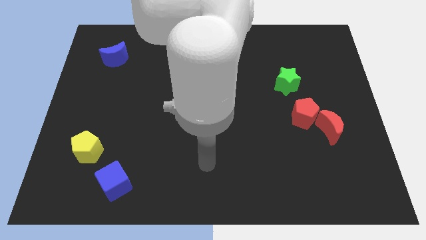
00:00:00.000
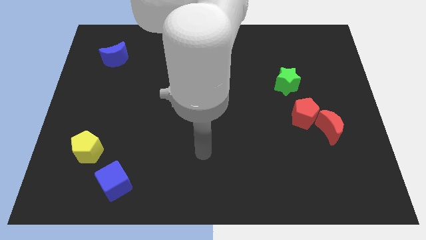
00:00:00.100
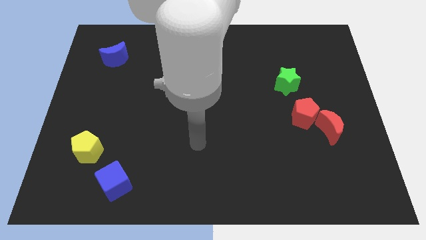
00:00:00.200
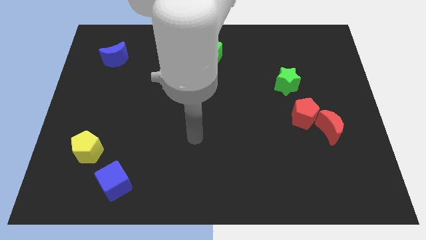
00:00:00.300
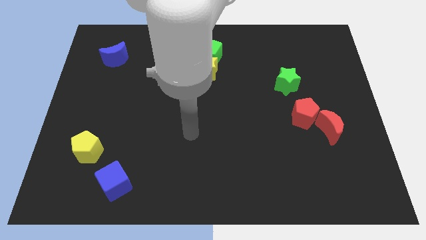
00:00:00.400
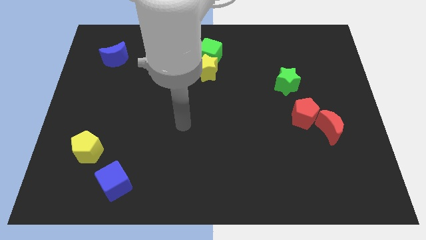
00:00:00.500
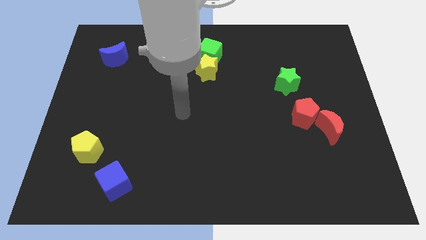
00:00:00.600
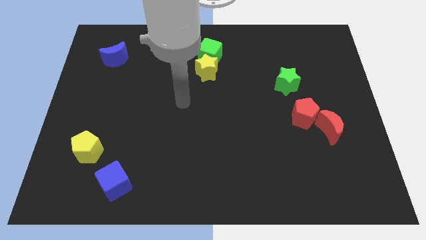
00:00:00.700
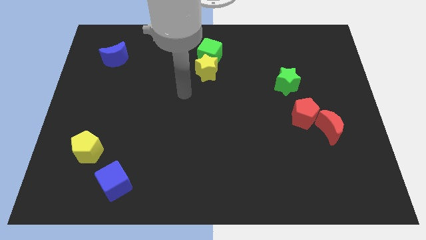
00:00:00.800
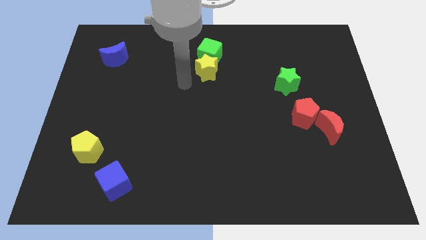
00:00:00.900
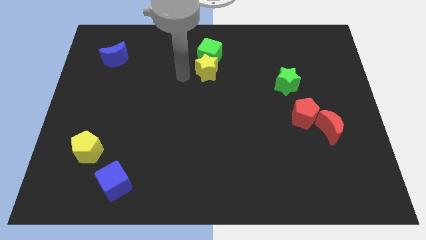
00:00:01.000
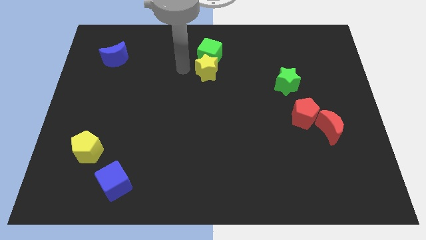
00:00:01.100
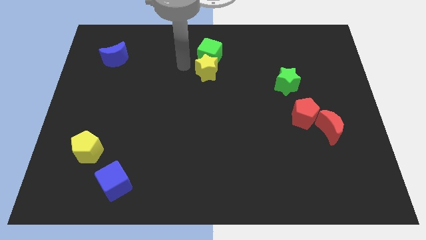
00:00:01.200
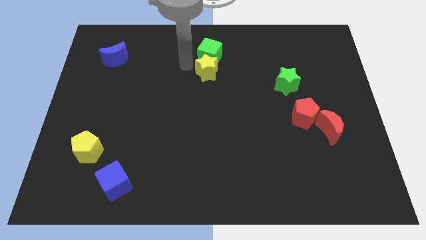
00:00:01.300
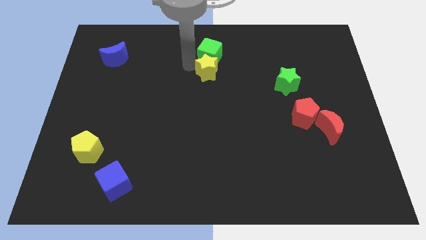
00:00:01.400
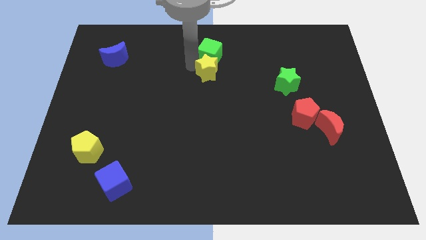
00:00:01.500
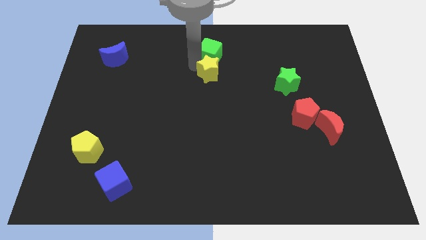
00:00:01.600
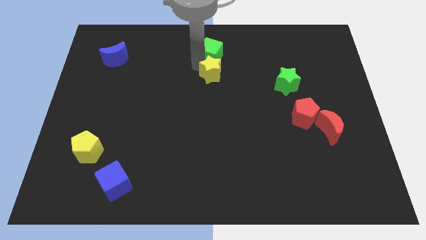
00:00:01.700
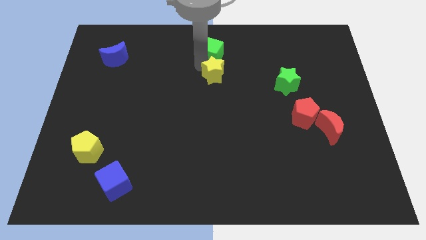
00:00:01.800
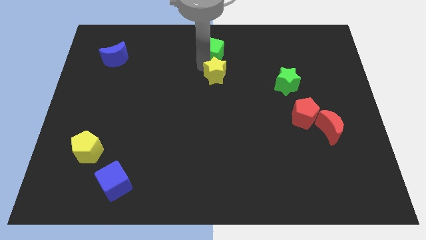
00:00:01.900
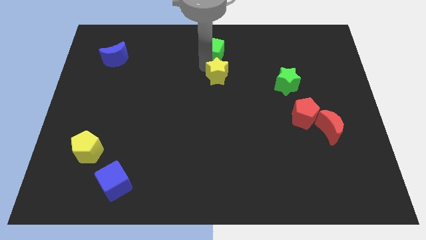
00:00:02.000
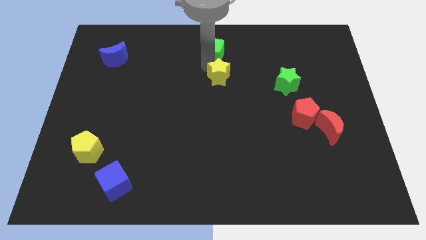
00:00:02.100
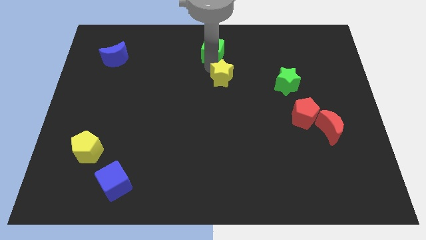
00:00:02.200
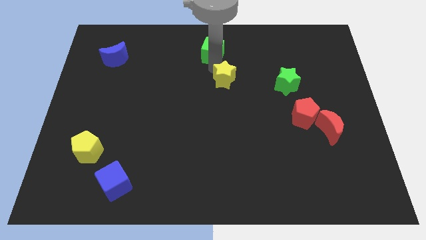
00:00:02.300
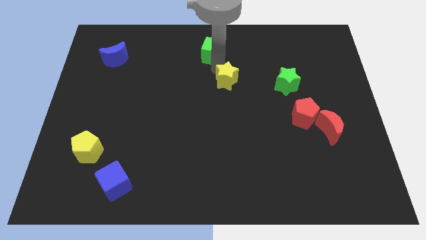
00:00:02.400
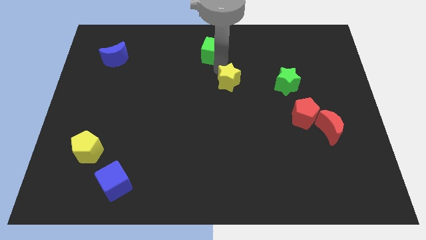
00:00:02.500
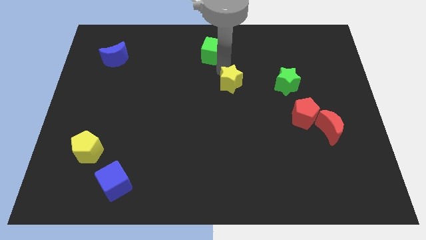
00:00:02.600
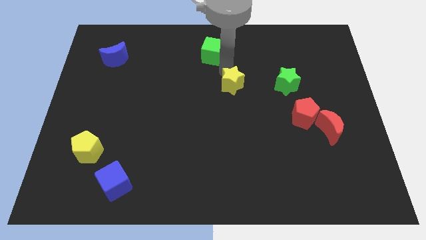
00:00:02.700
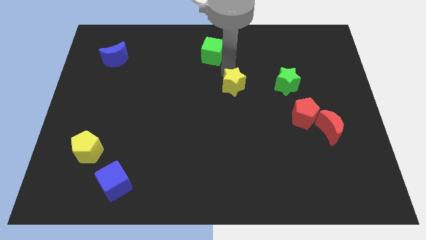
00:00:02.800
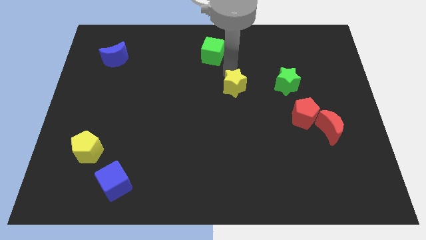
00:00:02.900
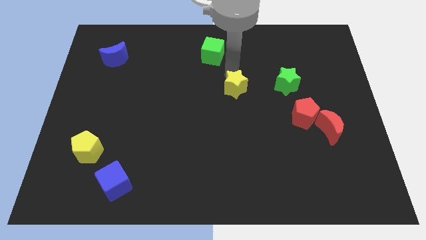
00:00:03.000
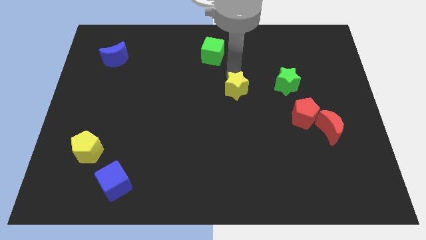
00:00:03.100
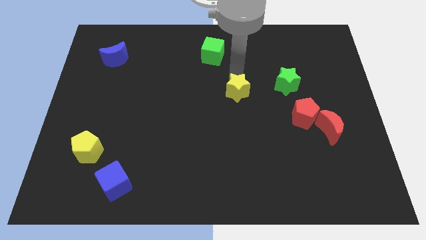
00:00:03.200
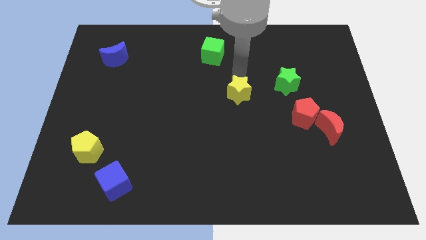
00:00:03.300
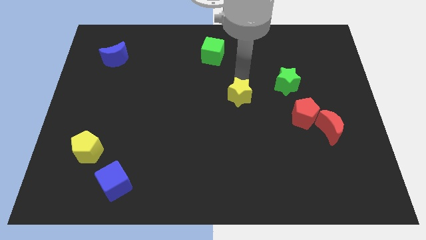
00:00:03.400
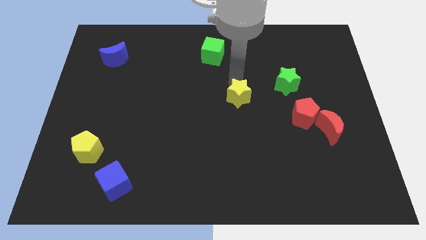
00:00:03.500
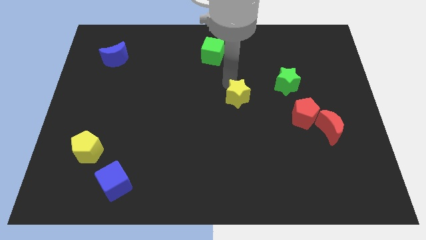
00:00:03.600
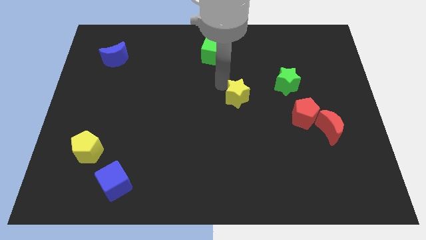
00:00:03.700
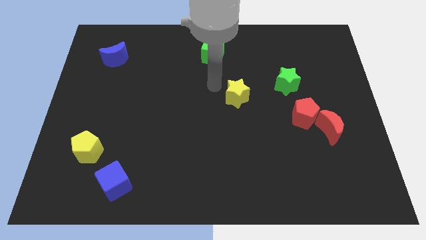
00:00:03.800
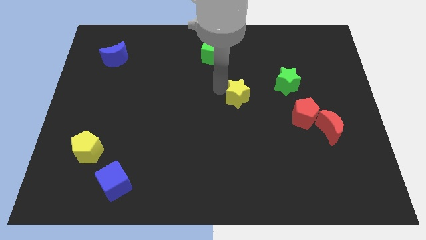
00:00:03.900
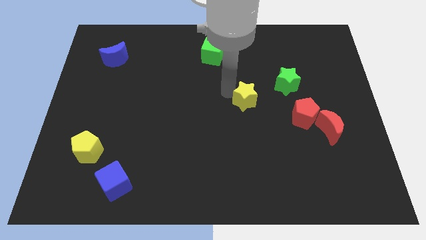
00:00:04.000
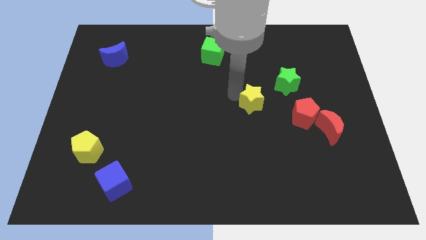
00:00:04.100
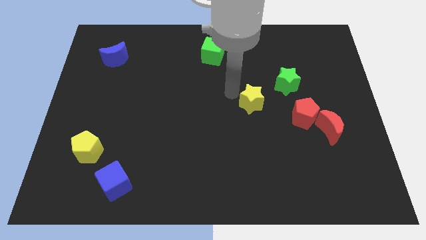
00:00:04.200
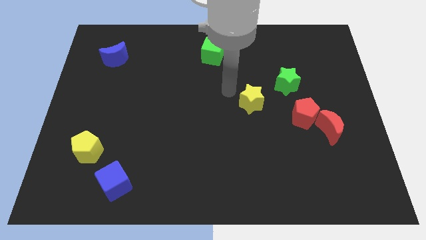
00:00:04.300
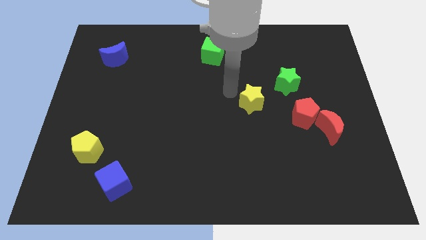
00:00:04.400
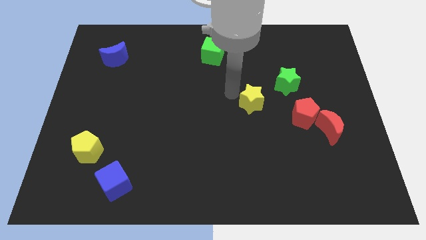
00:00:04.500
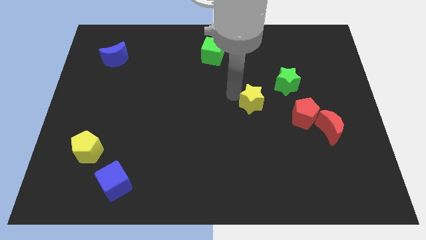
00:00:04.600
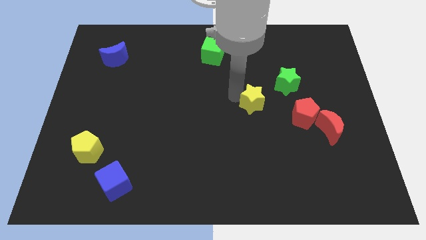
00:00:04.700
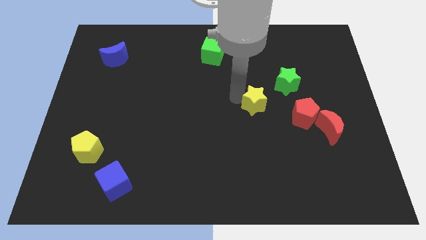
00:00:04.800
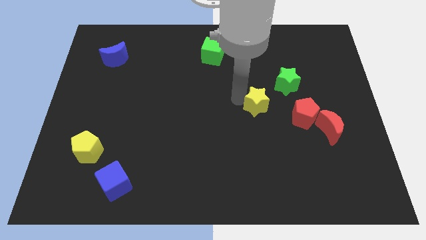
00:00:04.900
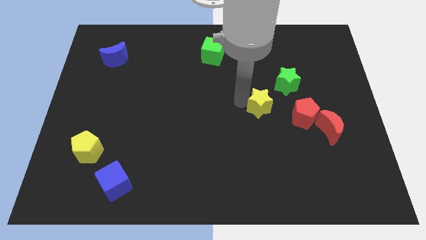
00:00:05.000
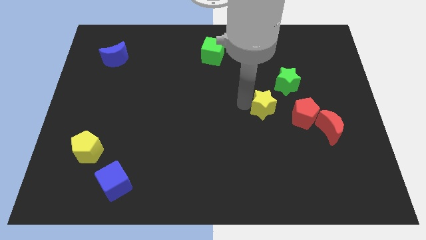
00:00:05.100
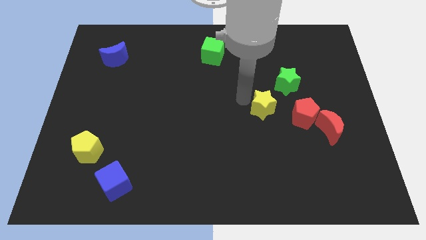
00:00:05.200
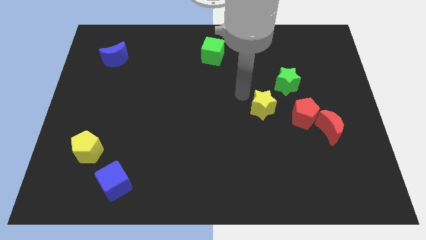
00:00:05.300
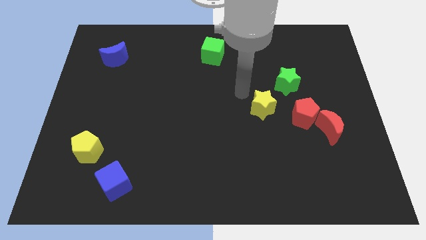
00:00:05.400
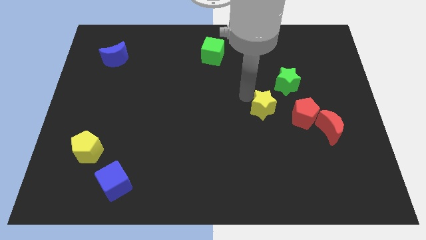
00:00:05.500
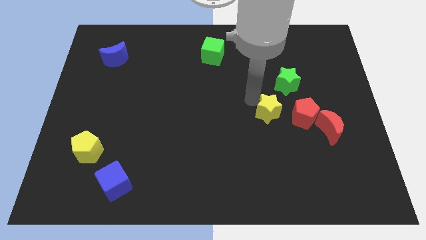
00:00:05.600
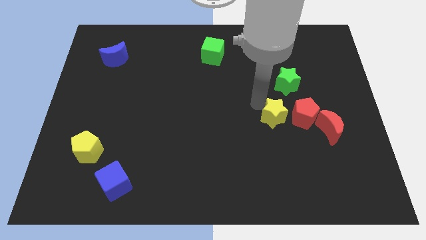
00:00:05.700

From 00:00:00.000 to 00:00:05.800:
move the yellow star diagonally downwards and right

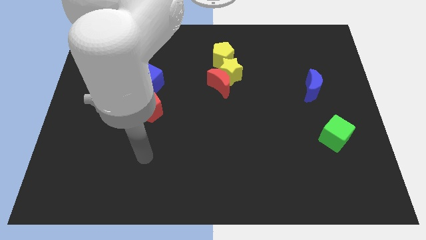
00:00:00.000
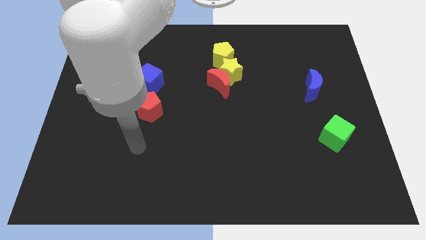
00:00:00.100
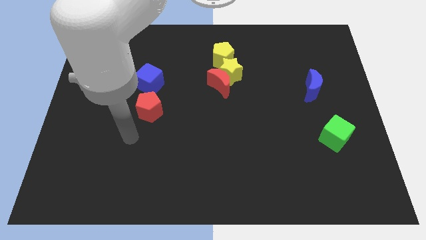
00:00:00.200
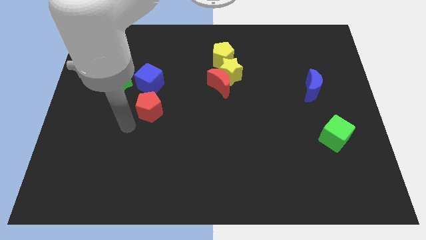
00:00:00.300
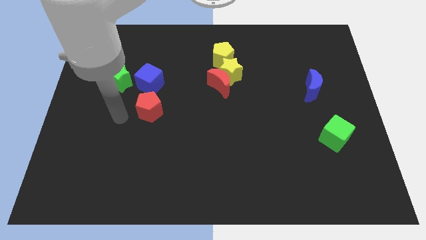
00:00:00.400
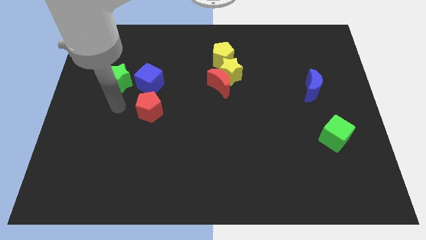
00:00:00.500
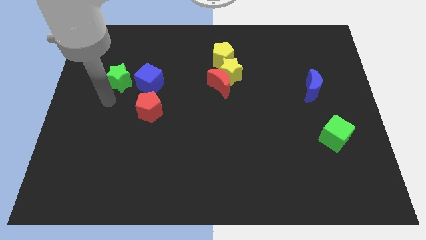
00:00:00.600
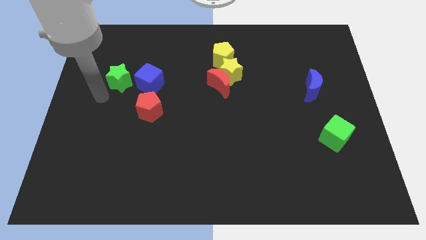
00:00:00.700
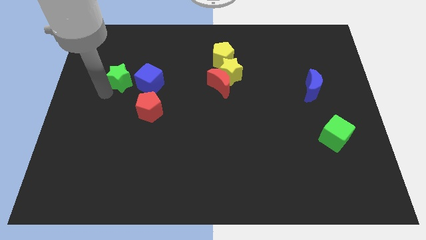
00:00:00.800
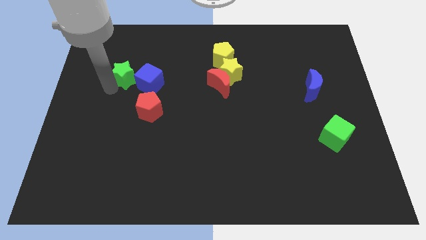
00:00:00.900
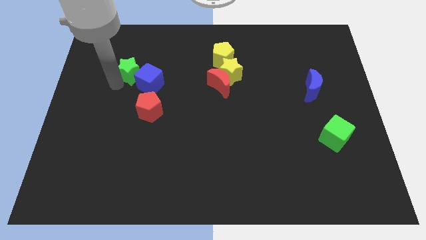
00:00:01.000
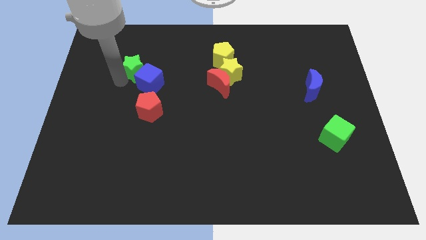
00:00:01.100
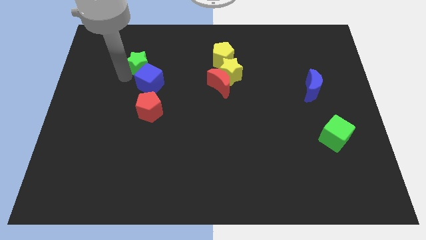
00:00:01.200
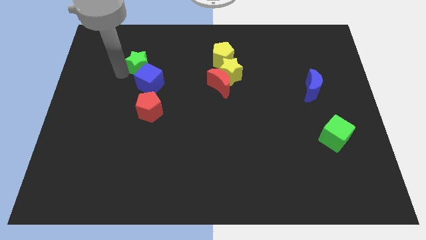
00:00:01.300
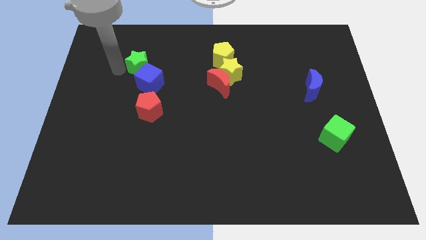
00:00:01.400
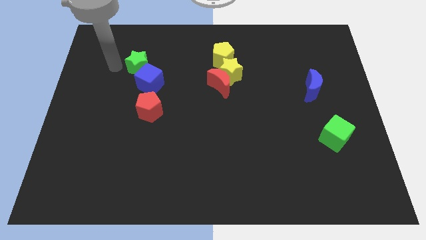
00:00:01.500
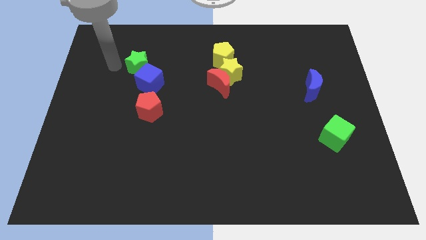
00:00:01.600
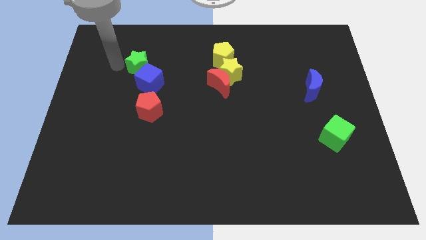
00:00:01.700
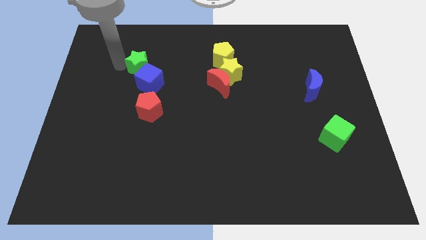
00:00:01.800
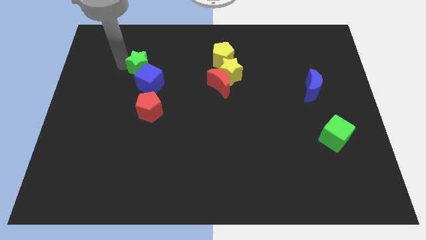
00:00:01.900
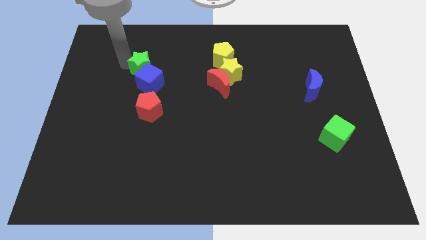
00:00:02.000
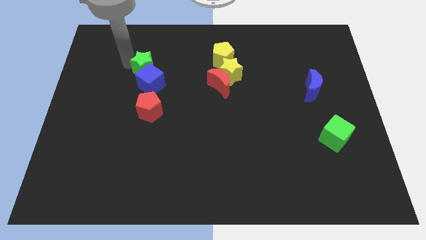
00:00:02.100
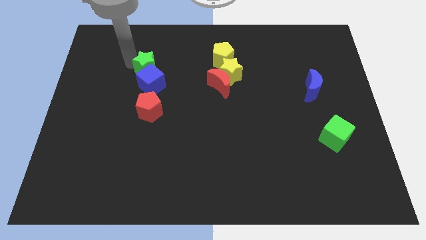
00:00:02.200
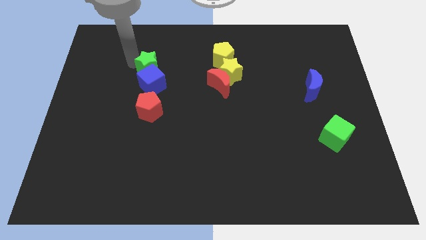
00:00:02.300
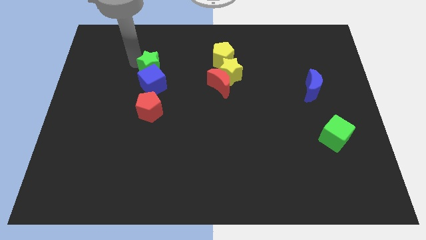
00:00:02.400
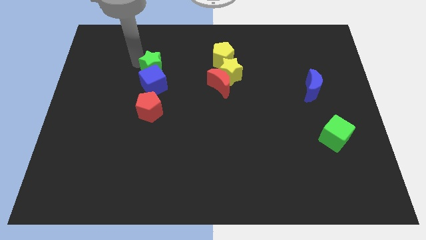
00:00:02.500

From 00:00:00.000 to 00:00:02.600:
slightly push the green star right

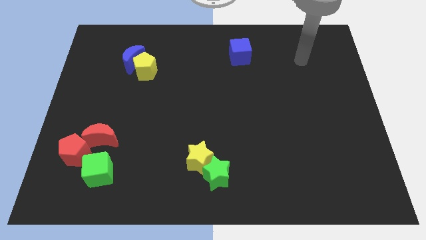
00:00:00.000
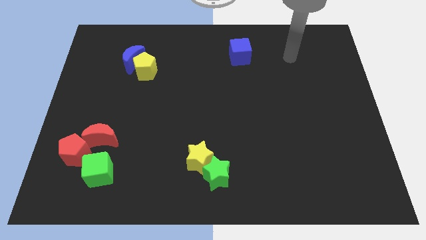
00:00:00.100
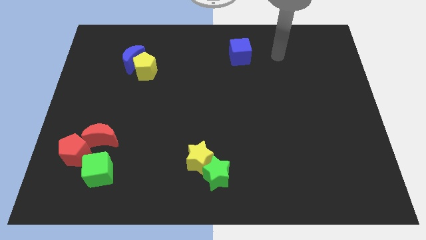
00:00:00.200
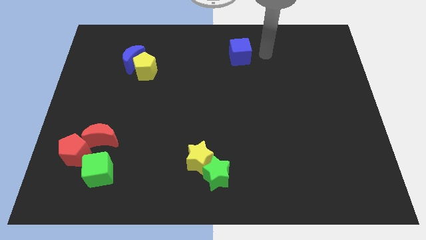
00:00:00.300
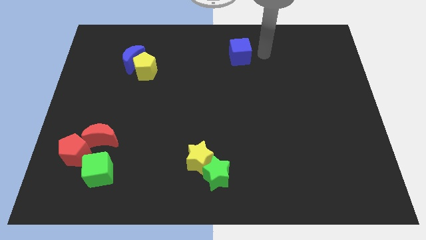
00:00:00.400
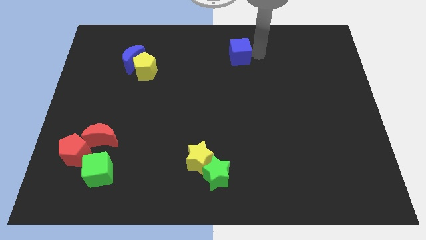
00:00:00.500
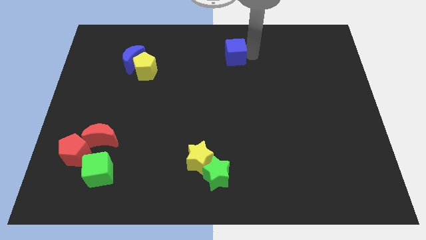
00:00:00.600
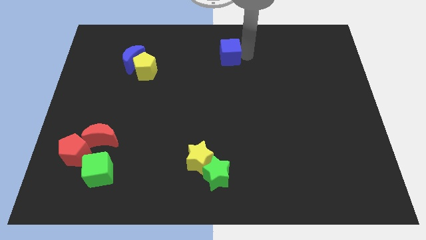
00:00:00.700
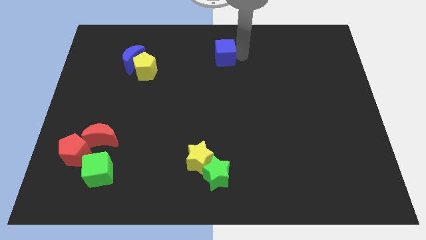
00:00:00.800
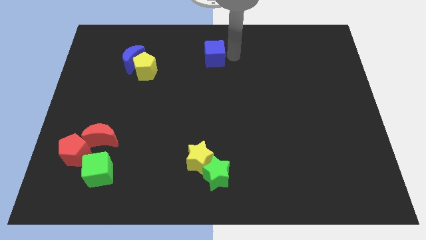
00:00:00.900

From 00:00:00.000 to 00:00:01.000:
move the blue cube left slightly
